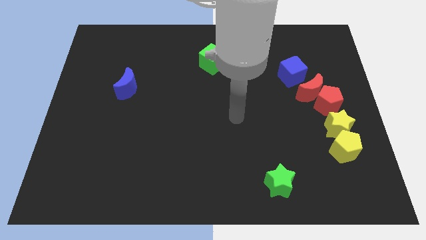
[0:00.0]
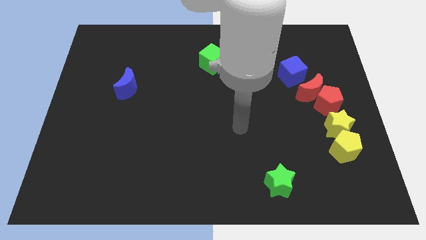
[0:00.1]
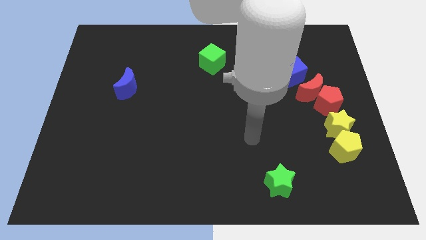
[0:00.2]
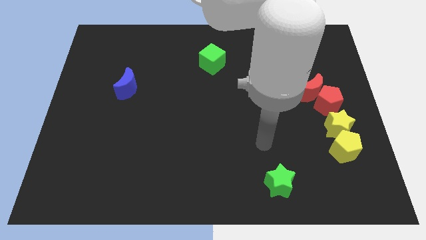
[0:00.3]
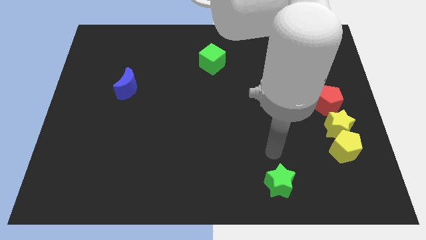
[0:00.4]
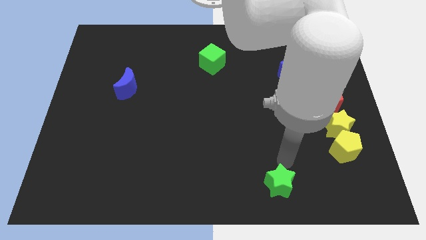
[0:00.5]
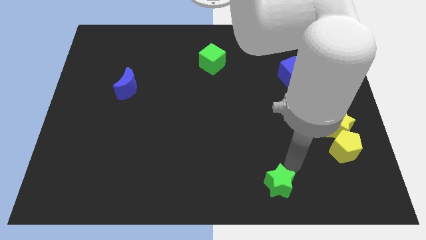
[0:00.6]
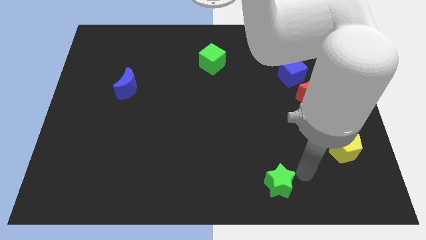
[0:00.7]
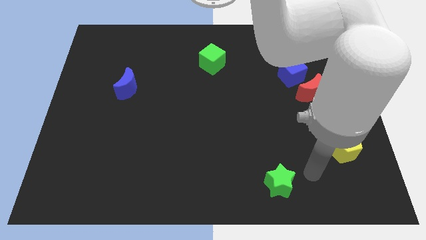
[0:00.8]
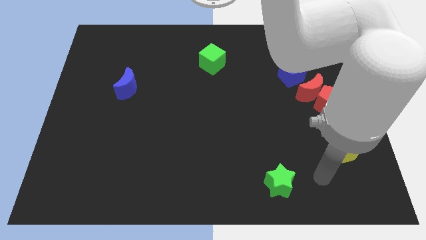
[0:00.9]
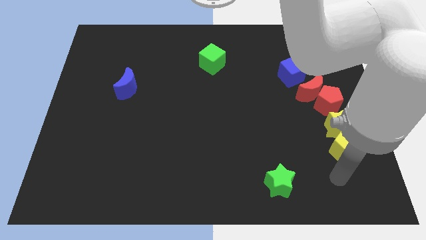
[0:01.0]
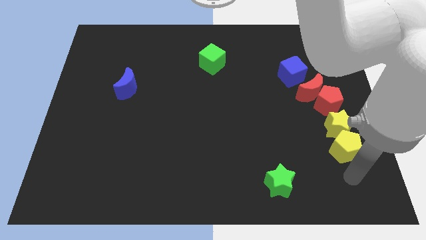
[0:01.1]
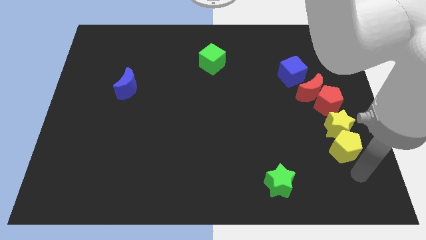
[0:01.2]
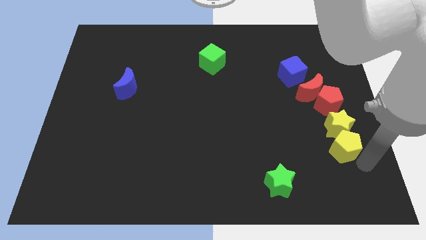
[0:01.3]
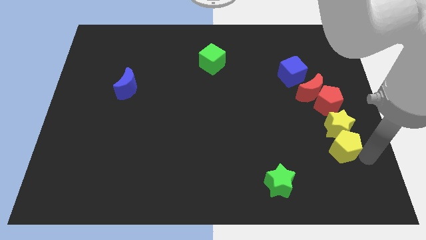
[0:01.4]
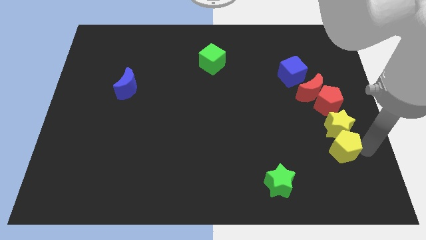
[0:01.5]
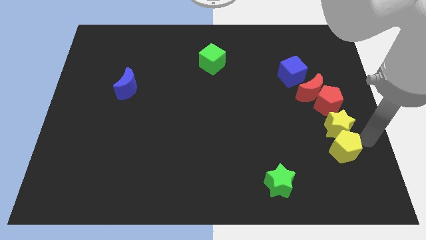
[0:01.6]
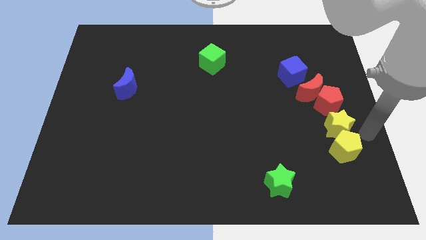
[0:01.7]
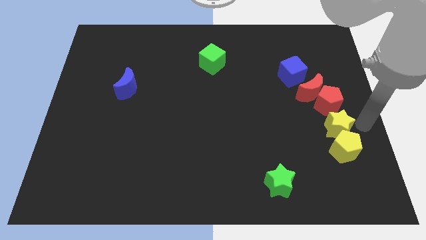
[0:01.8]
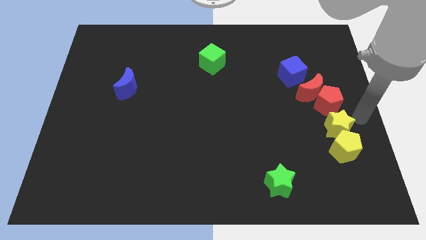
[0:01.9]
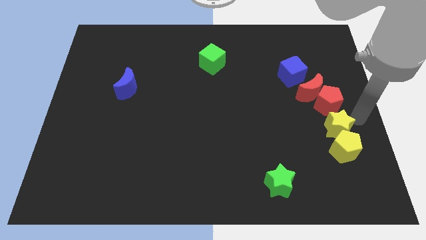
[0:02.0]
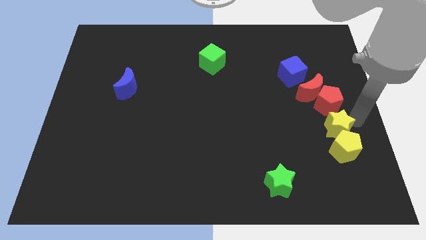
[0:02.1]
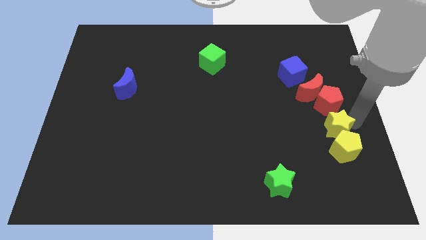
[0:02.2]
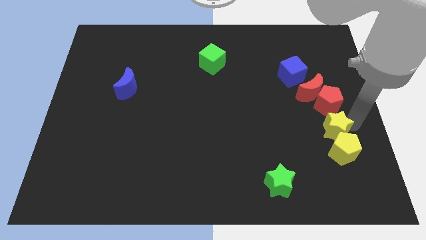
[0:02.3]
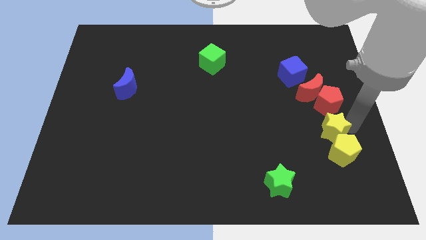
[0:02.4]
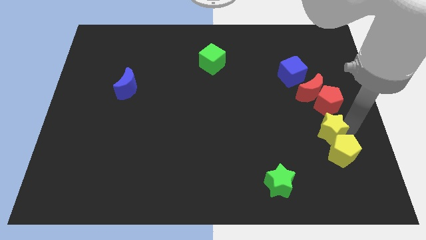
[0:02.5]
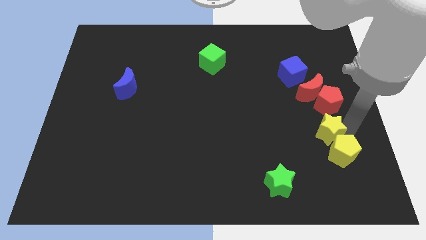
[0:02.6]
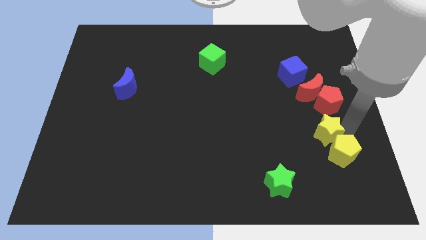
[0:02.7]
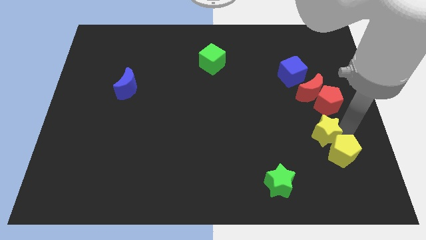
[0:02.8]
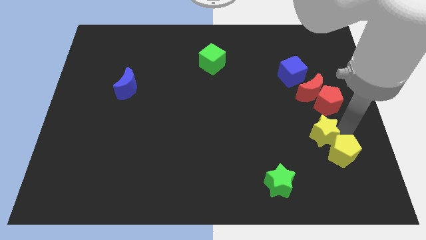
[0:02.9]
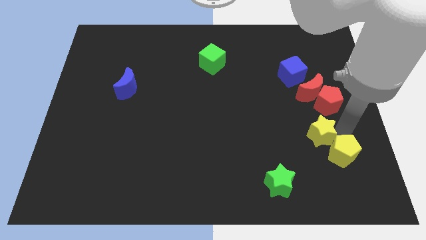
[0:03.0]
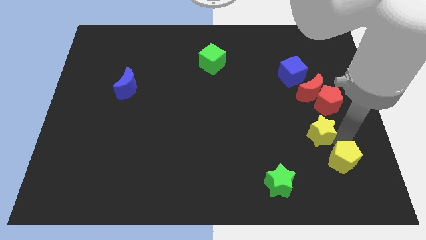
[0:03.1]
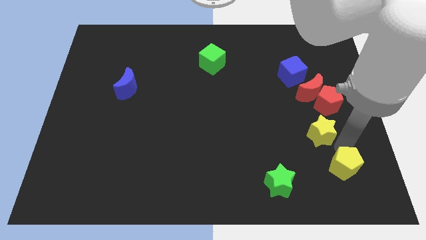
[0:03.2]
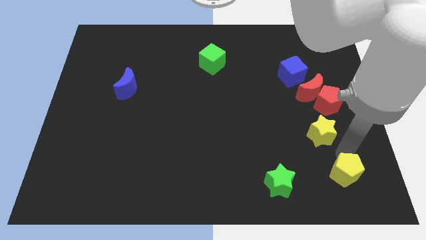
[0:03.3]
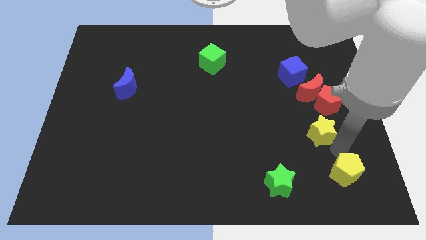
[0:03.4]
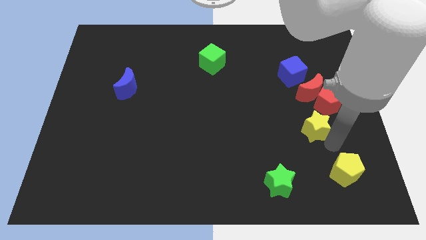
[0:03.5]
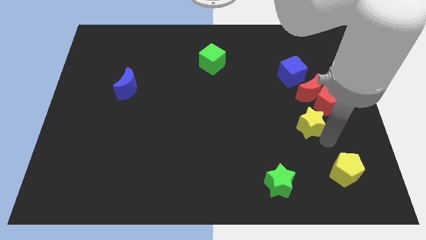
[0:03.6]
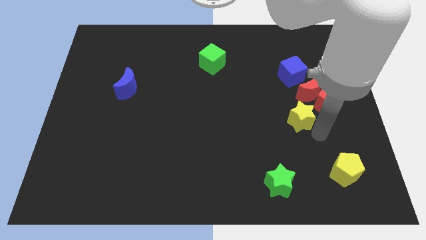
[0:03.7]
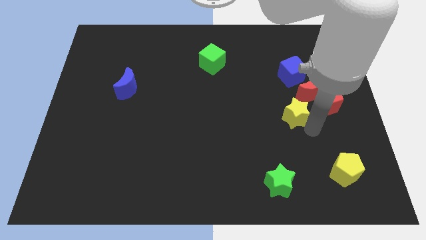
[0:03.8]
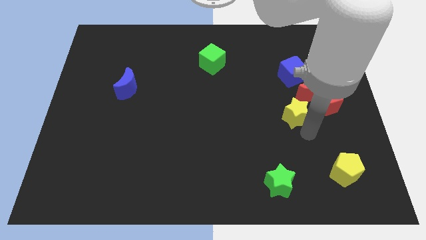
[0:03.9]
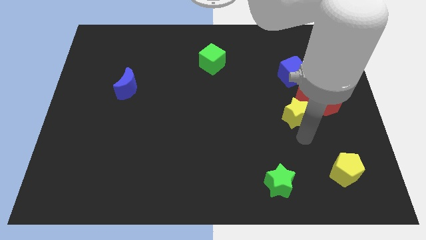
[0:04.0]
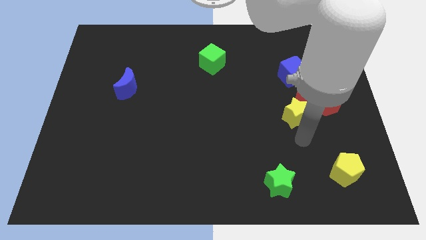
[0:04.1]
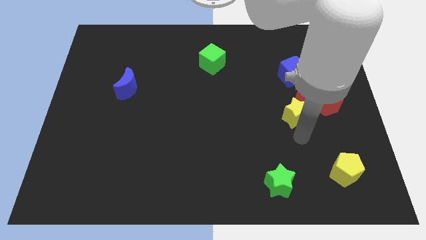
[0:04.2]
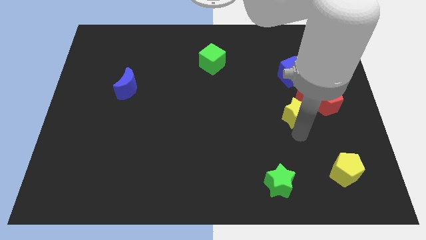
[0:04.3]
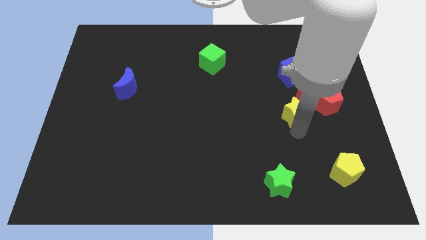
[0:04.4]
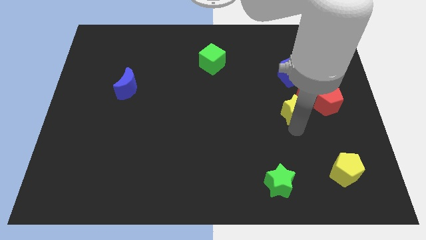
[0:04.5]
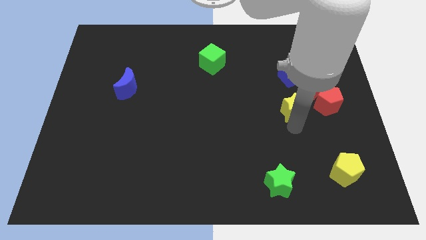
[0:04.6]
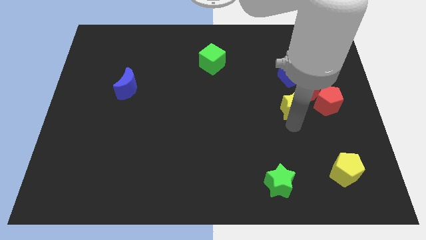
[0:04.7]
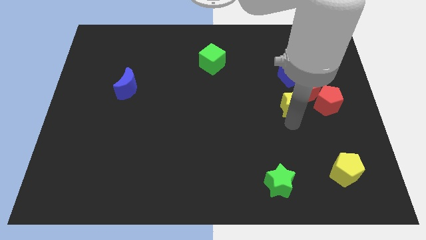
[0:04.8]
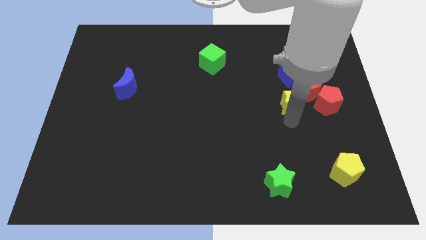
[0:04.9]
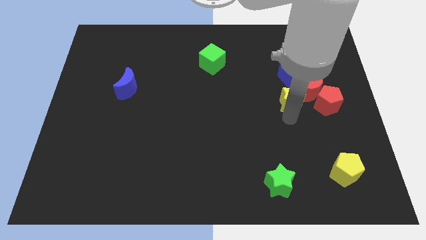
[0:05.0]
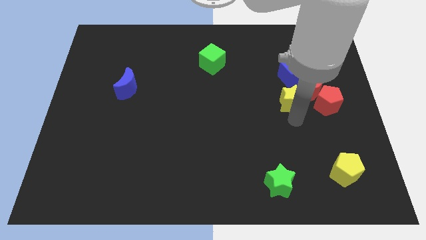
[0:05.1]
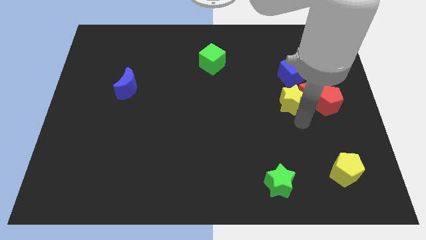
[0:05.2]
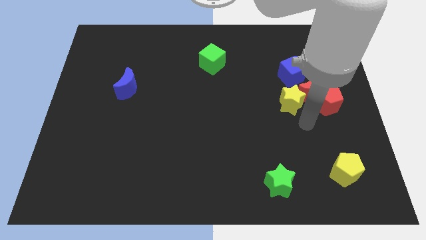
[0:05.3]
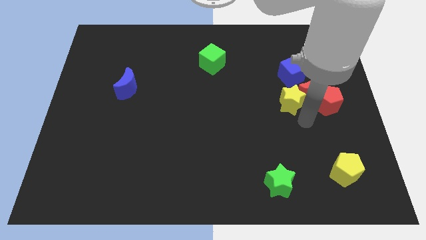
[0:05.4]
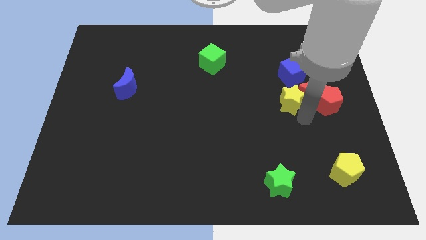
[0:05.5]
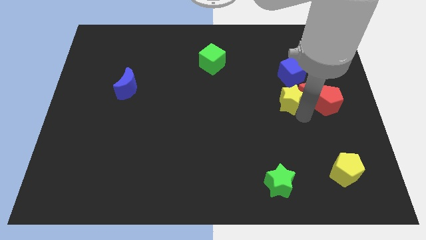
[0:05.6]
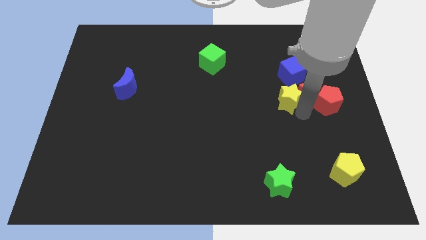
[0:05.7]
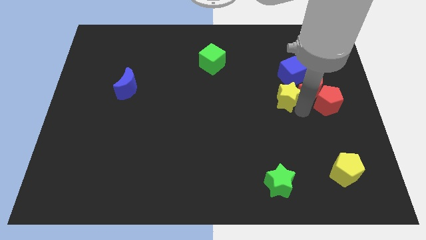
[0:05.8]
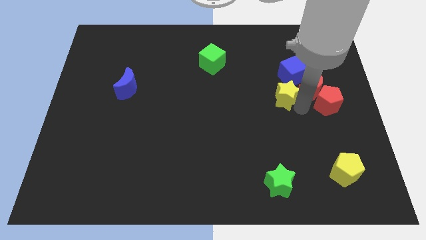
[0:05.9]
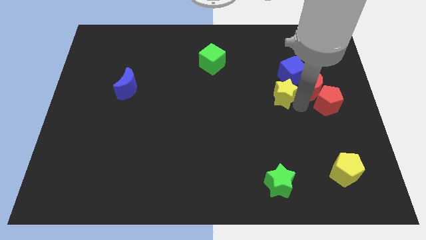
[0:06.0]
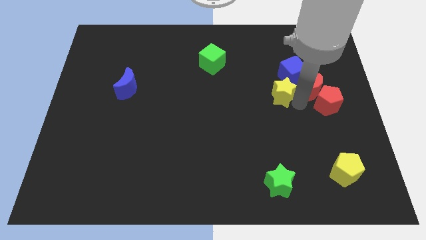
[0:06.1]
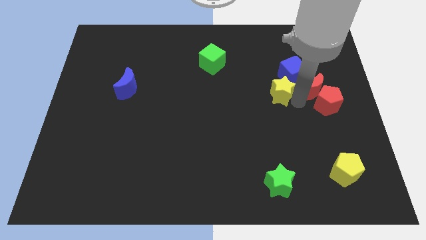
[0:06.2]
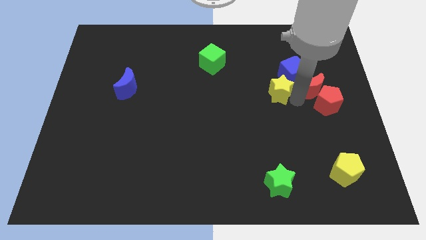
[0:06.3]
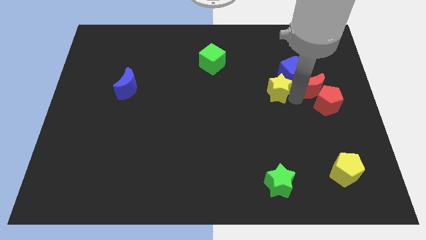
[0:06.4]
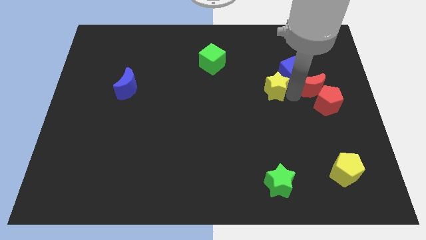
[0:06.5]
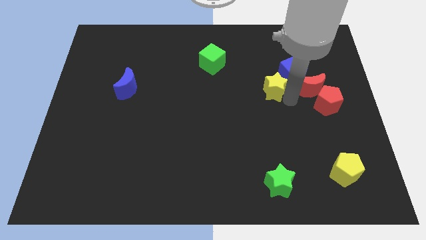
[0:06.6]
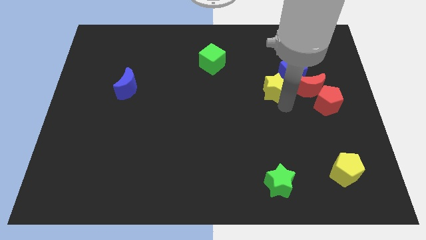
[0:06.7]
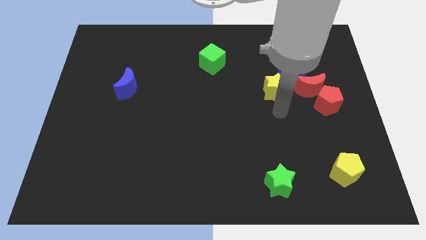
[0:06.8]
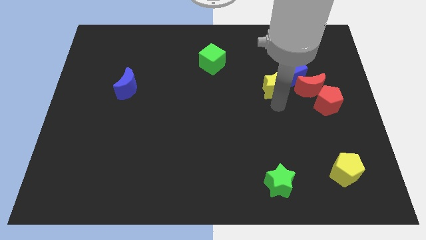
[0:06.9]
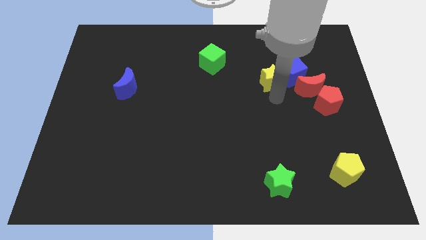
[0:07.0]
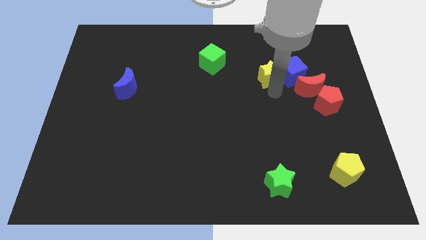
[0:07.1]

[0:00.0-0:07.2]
move the yellow star to the top left of the blue cube
